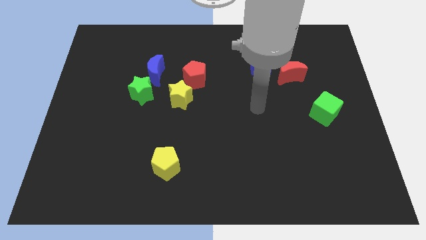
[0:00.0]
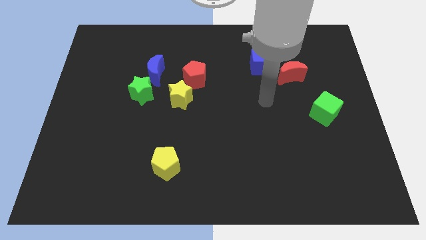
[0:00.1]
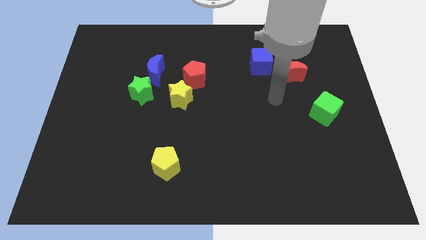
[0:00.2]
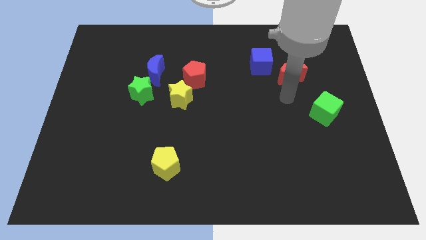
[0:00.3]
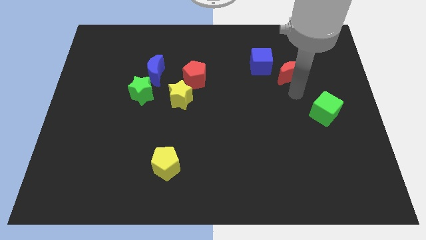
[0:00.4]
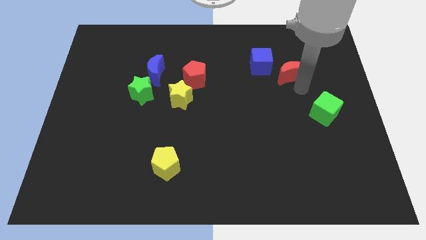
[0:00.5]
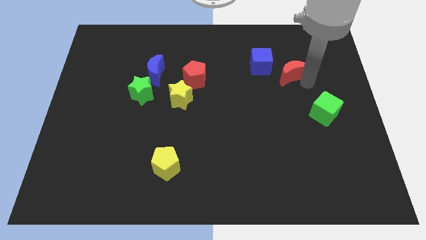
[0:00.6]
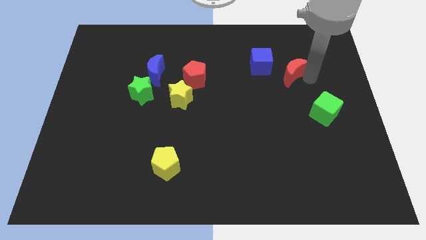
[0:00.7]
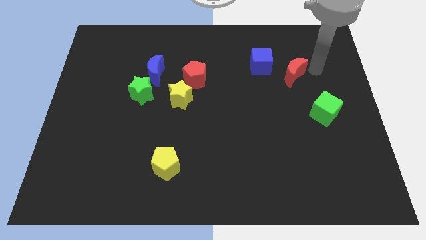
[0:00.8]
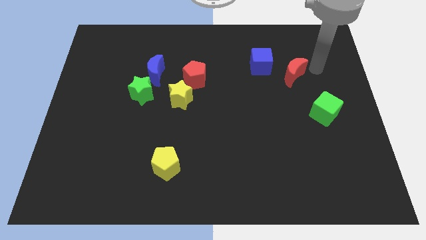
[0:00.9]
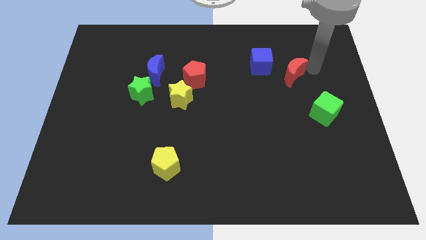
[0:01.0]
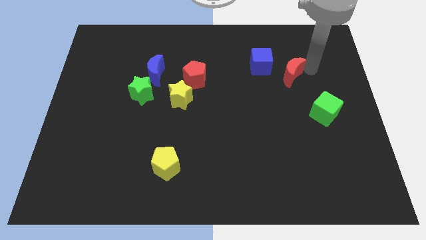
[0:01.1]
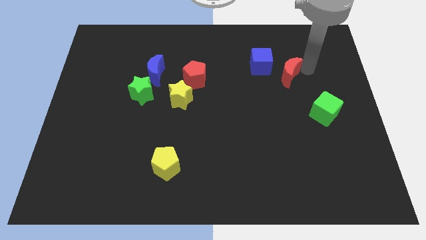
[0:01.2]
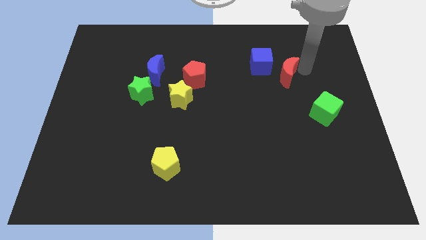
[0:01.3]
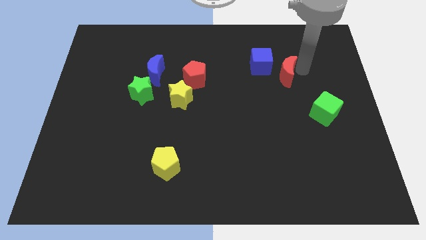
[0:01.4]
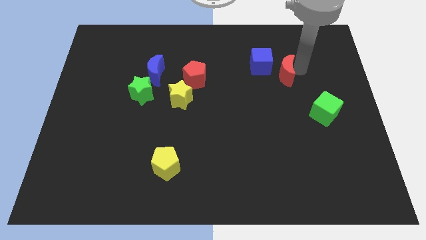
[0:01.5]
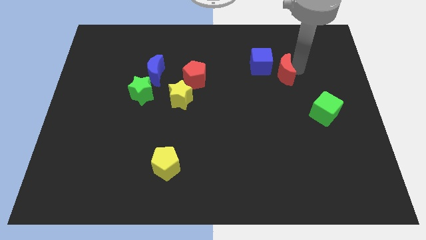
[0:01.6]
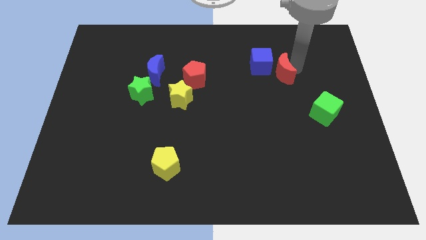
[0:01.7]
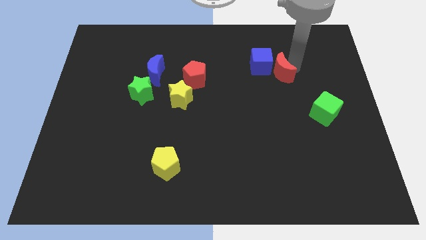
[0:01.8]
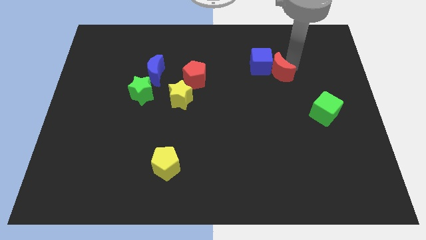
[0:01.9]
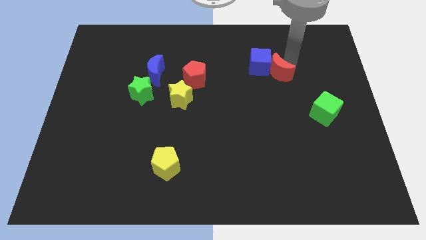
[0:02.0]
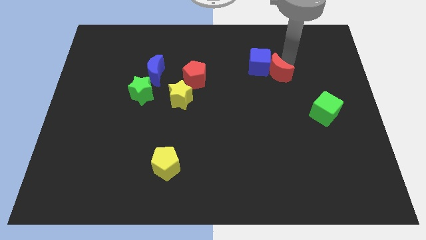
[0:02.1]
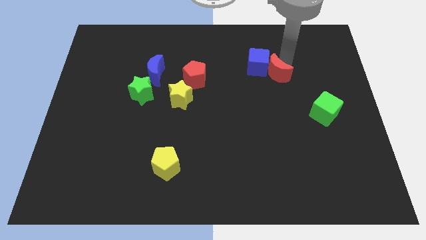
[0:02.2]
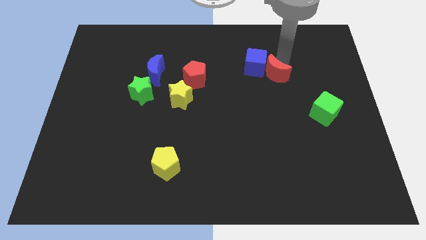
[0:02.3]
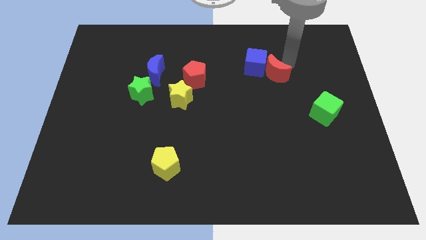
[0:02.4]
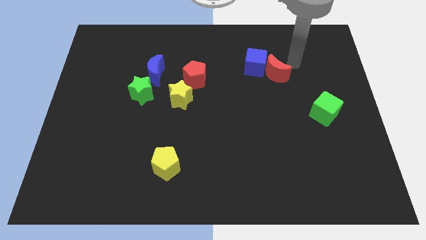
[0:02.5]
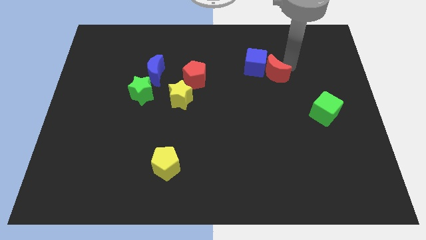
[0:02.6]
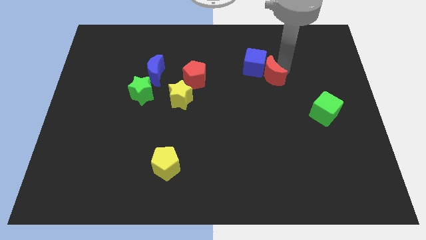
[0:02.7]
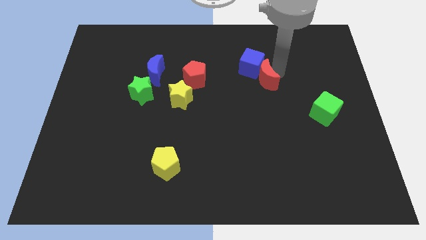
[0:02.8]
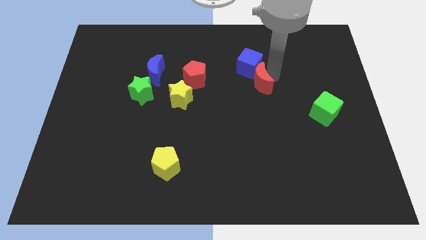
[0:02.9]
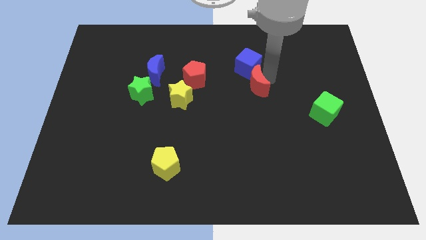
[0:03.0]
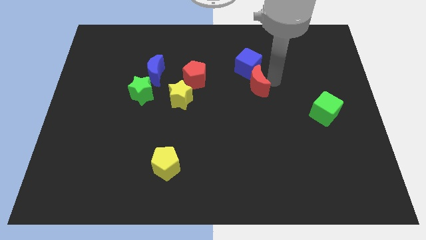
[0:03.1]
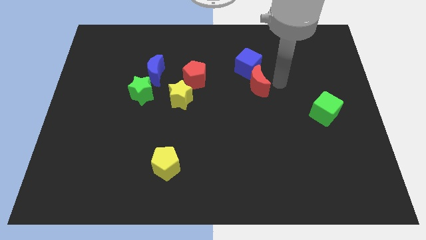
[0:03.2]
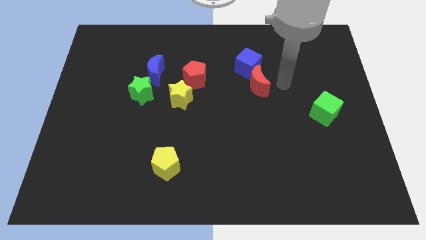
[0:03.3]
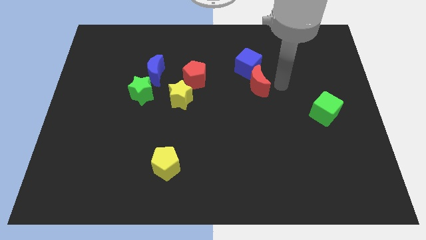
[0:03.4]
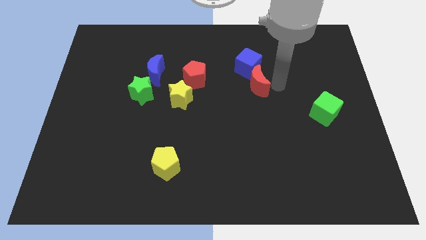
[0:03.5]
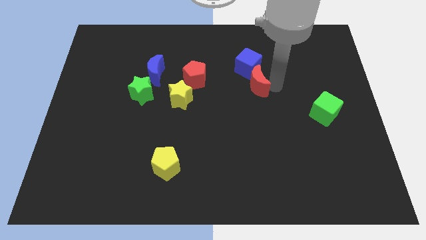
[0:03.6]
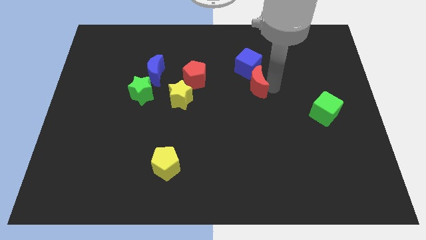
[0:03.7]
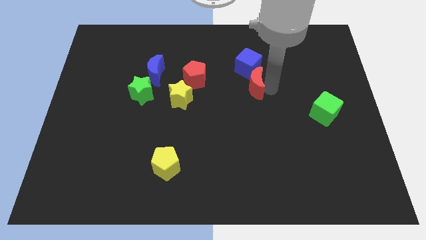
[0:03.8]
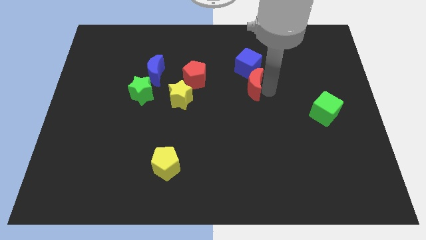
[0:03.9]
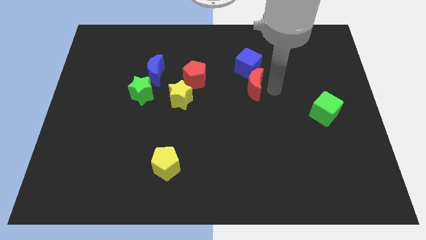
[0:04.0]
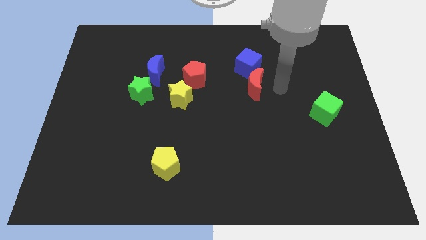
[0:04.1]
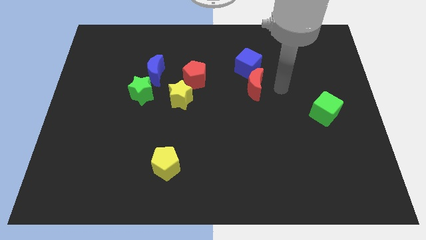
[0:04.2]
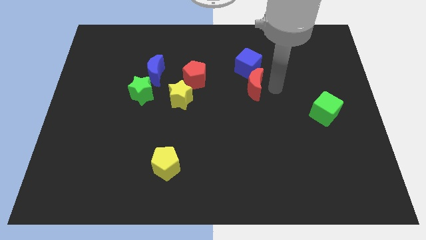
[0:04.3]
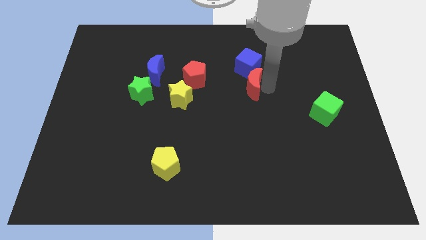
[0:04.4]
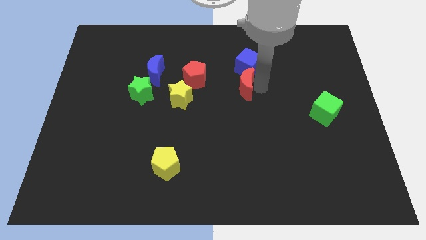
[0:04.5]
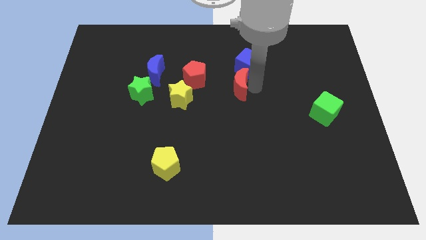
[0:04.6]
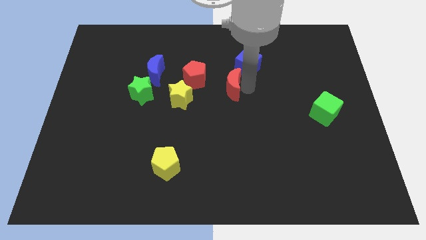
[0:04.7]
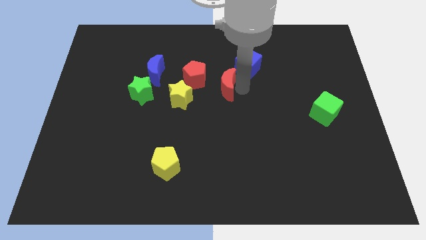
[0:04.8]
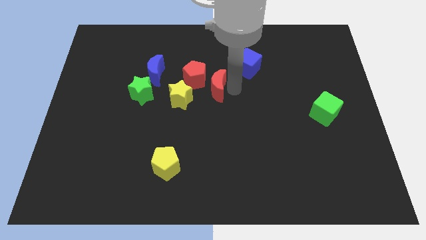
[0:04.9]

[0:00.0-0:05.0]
slide the red moon next to the red pentagon

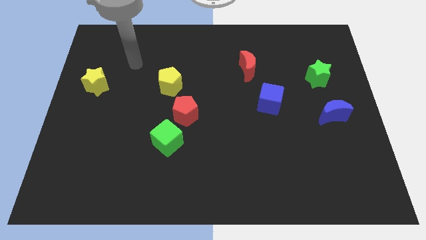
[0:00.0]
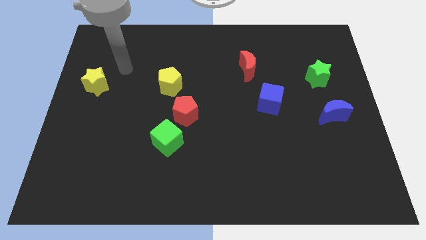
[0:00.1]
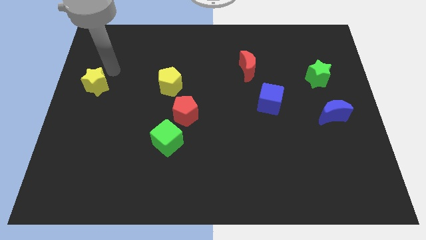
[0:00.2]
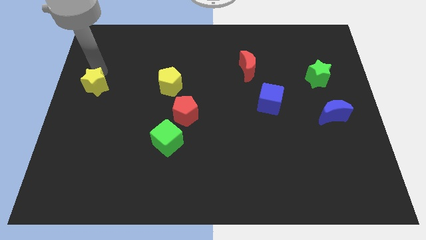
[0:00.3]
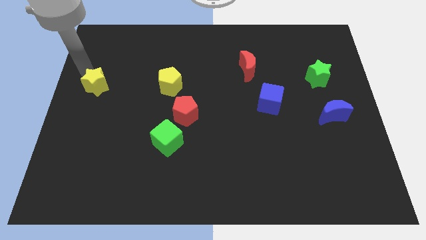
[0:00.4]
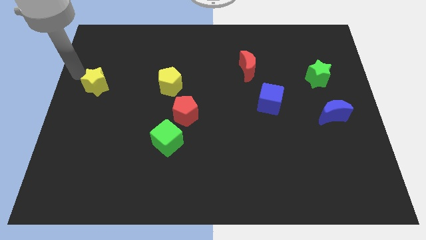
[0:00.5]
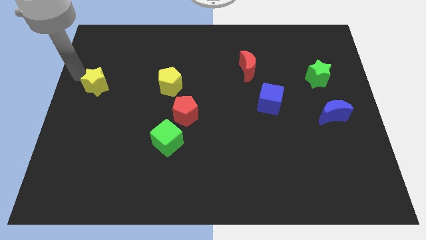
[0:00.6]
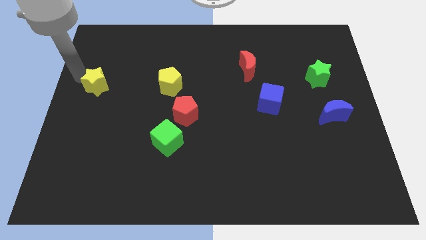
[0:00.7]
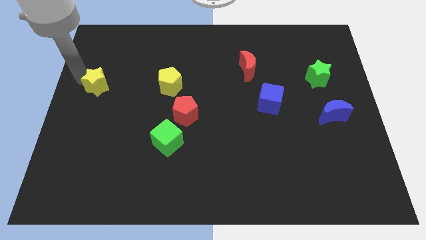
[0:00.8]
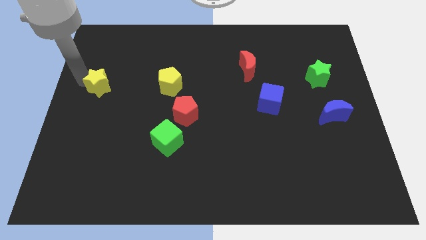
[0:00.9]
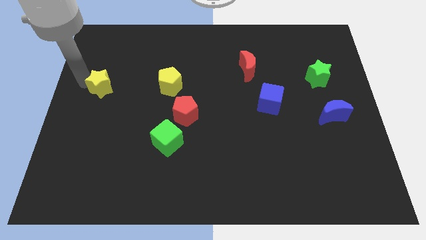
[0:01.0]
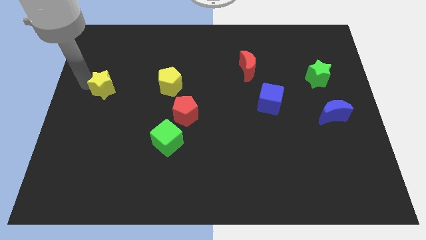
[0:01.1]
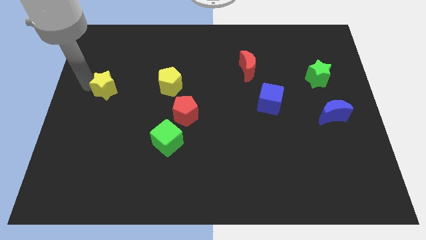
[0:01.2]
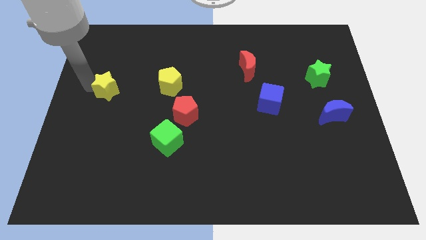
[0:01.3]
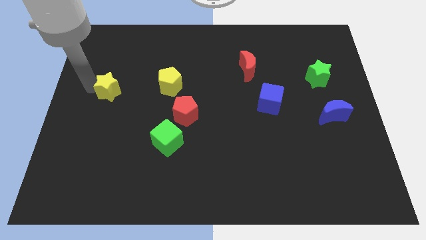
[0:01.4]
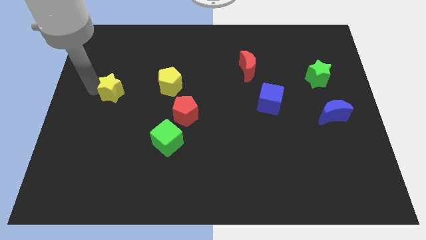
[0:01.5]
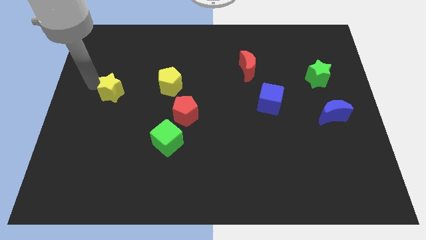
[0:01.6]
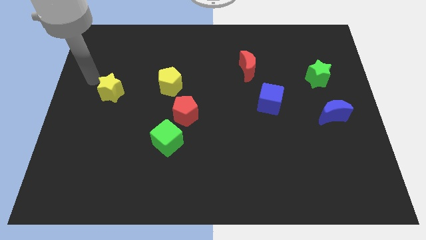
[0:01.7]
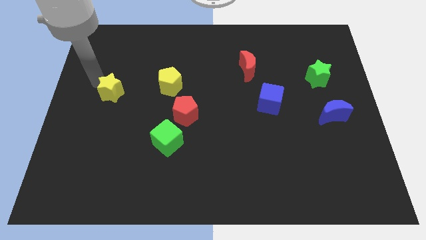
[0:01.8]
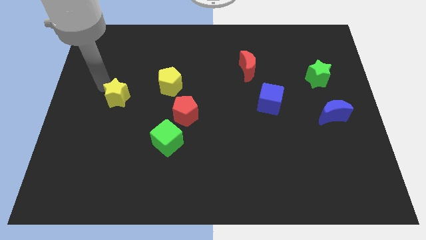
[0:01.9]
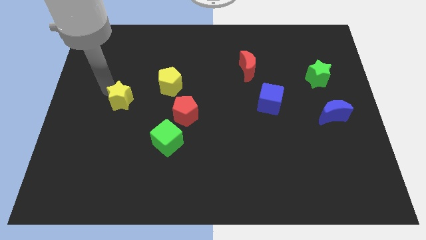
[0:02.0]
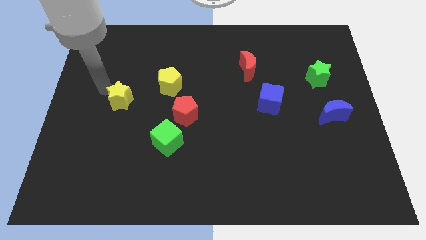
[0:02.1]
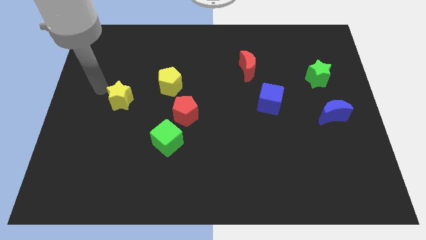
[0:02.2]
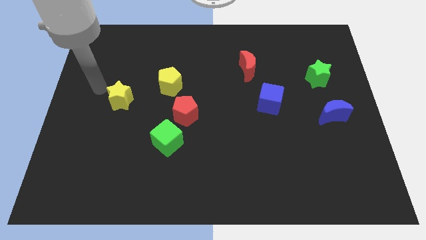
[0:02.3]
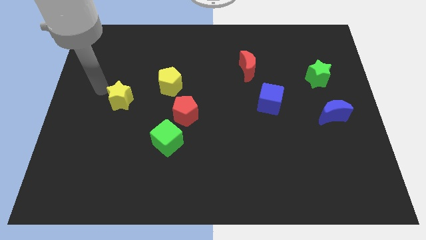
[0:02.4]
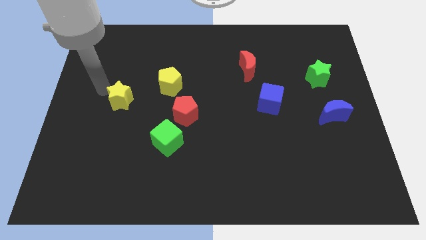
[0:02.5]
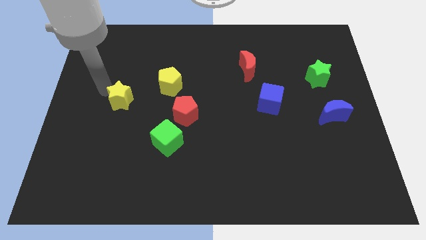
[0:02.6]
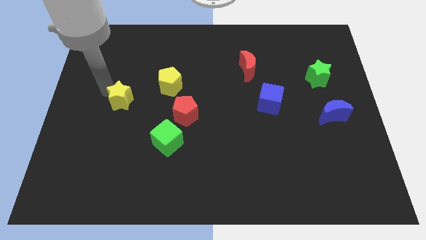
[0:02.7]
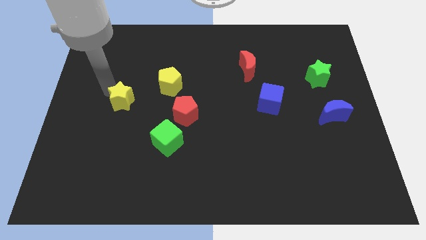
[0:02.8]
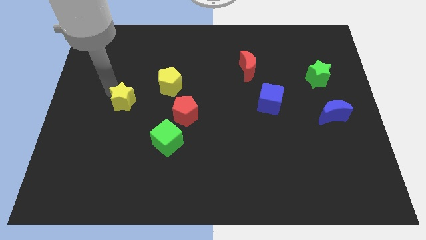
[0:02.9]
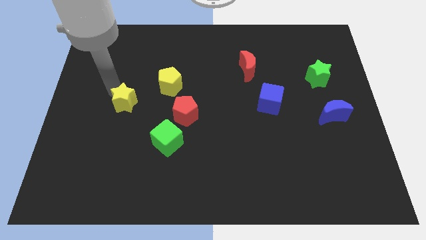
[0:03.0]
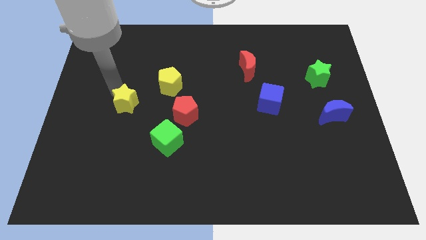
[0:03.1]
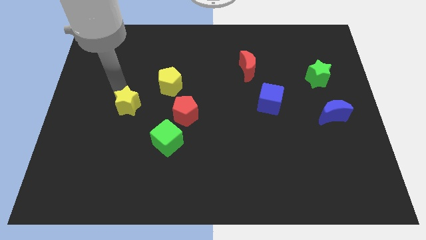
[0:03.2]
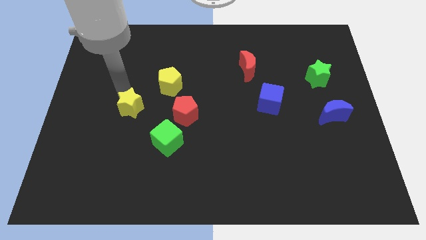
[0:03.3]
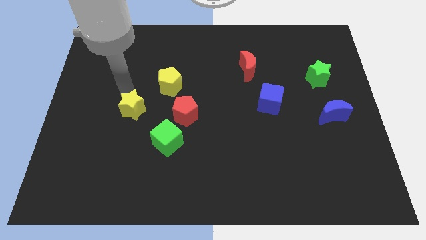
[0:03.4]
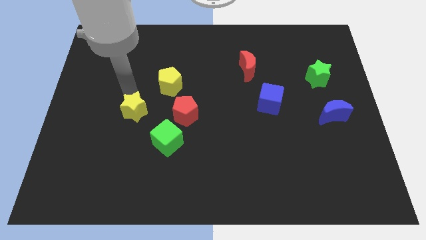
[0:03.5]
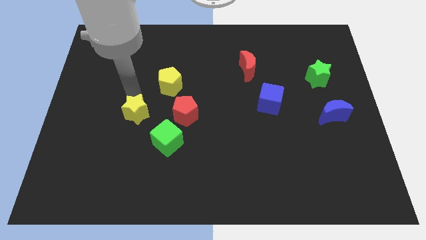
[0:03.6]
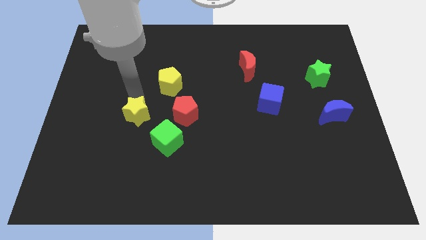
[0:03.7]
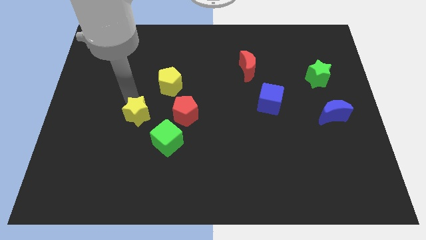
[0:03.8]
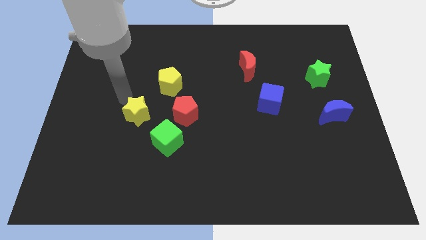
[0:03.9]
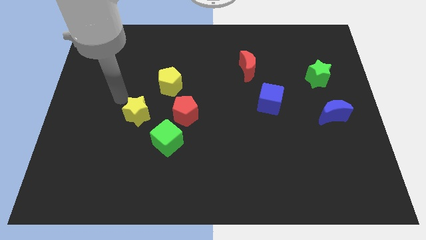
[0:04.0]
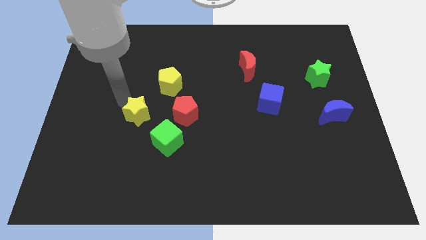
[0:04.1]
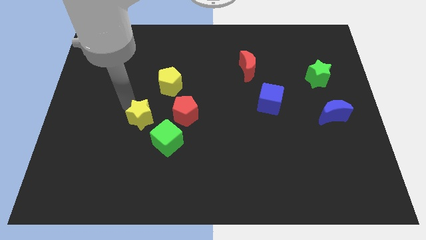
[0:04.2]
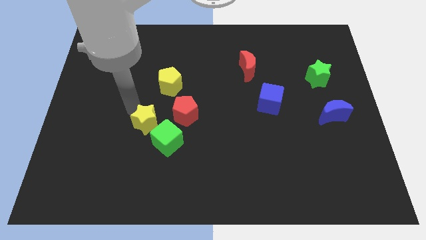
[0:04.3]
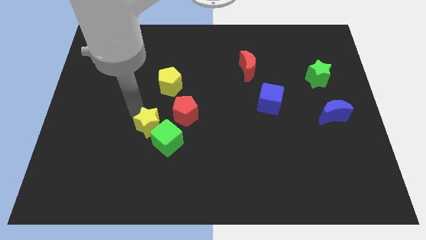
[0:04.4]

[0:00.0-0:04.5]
slide the yellow star to the green cube
